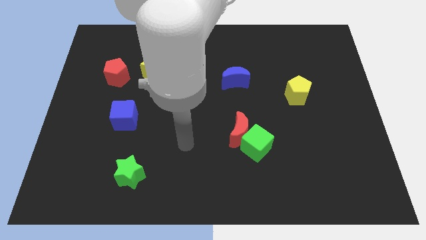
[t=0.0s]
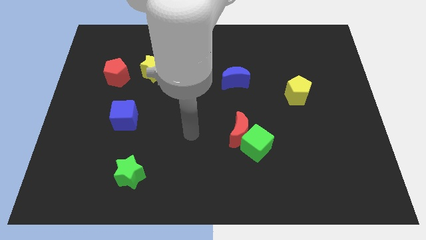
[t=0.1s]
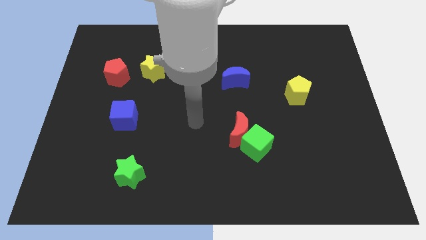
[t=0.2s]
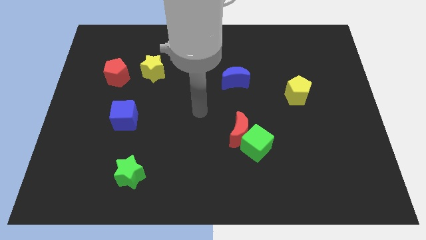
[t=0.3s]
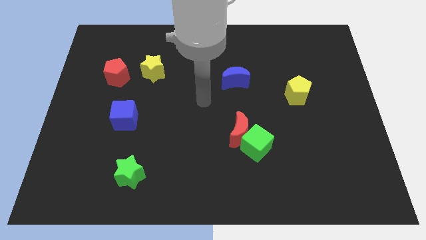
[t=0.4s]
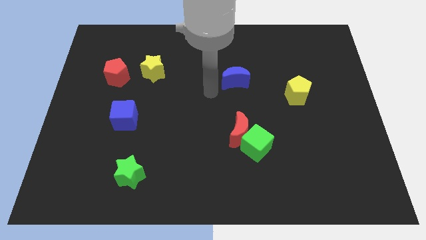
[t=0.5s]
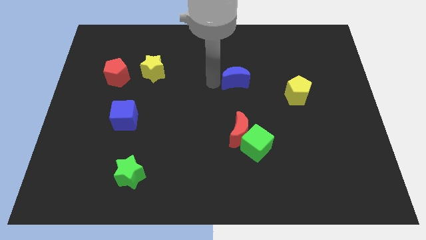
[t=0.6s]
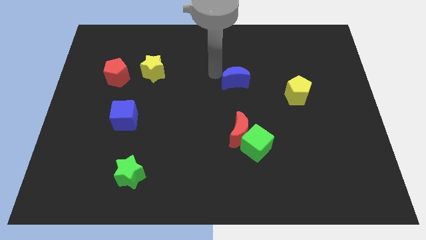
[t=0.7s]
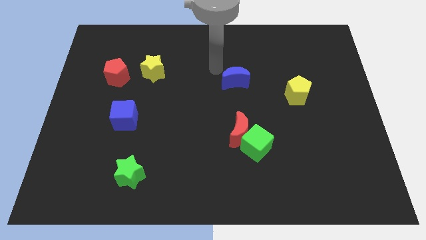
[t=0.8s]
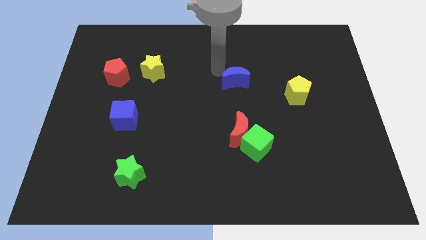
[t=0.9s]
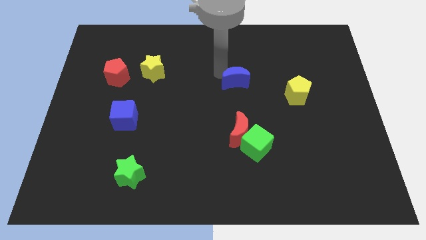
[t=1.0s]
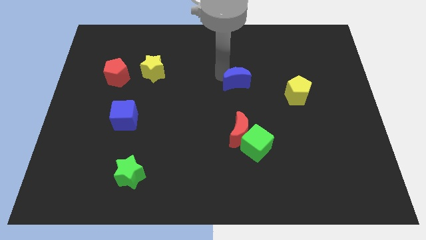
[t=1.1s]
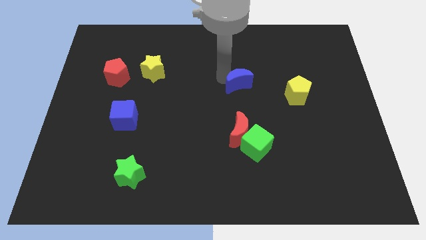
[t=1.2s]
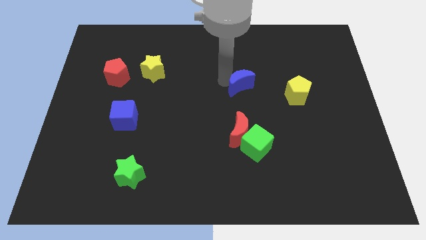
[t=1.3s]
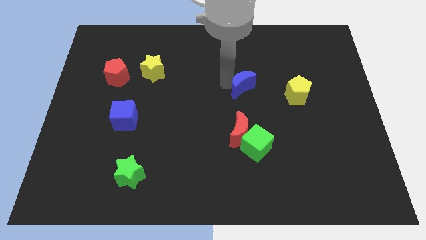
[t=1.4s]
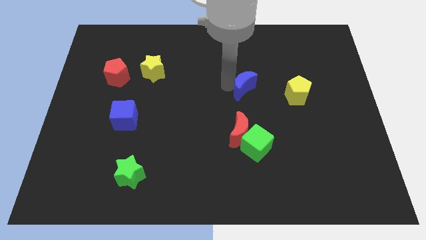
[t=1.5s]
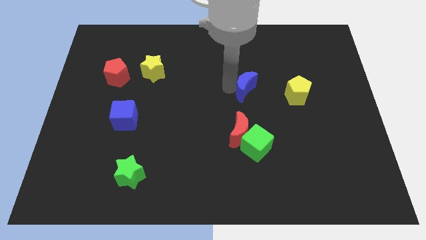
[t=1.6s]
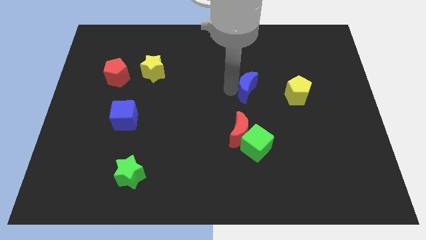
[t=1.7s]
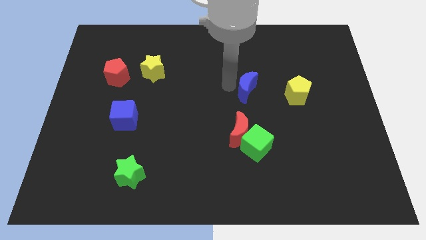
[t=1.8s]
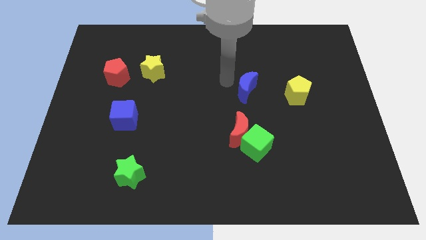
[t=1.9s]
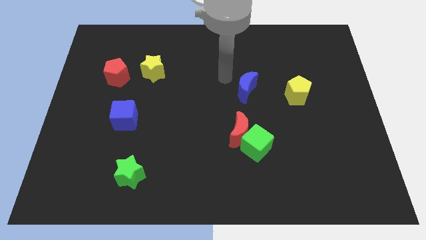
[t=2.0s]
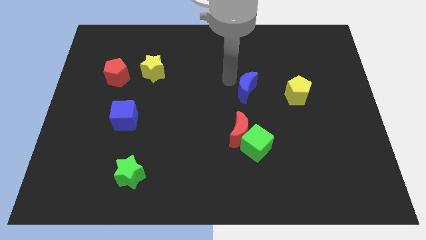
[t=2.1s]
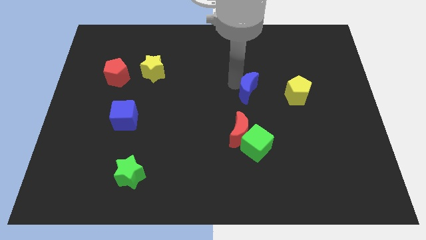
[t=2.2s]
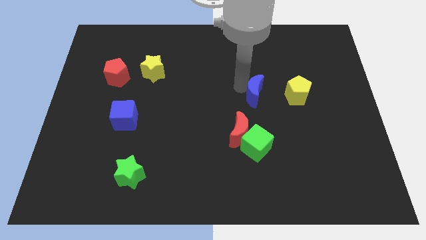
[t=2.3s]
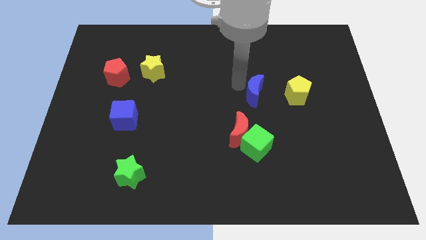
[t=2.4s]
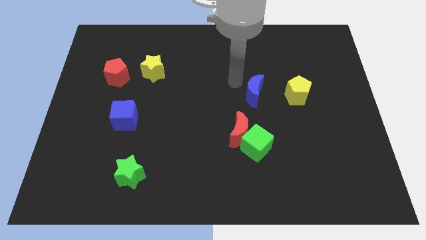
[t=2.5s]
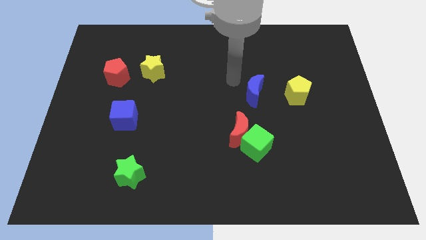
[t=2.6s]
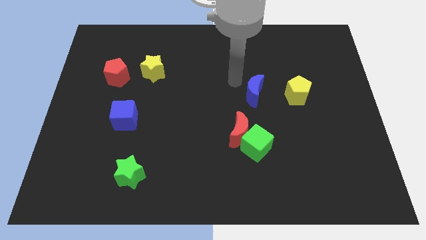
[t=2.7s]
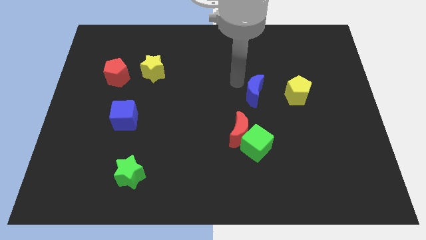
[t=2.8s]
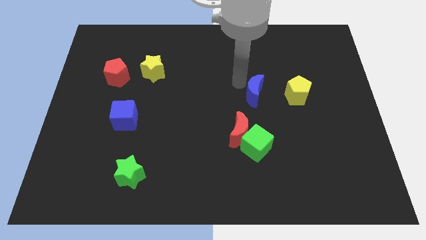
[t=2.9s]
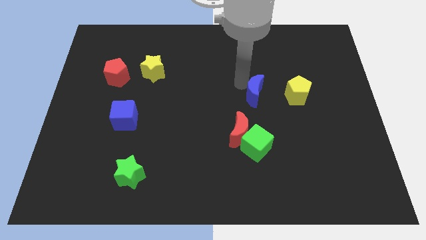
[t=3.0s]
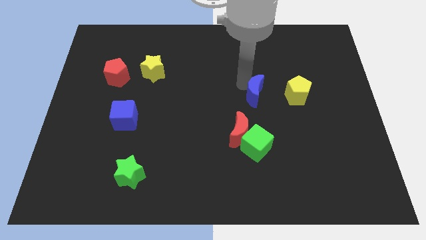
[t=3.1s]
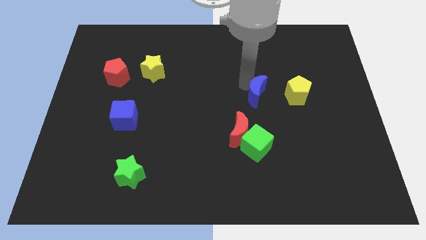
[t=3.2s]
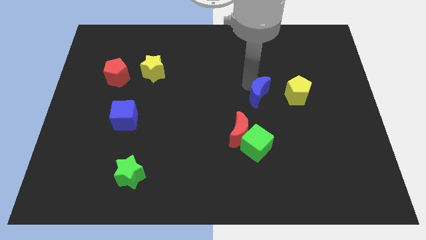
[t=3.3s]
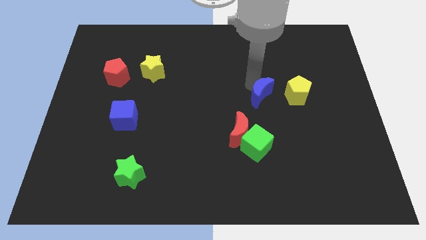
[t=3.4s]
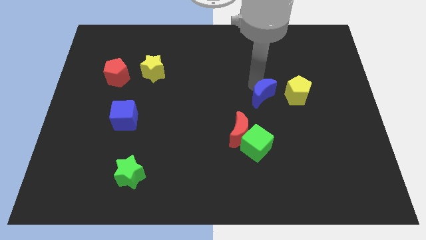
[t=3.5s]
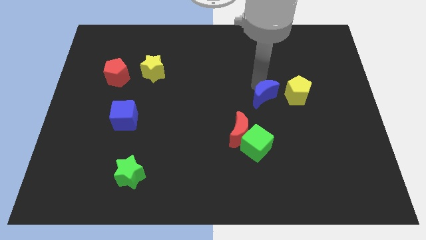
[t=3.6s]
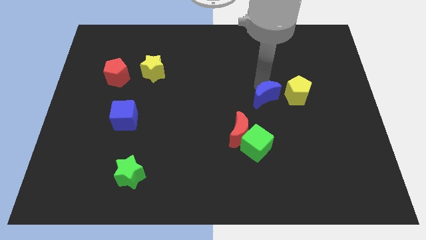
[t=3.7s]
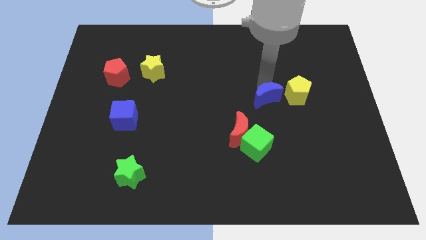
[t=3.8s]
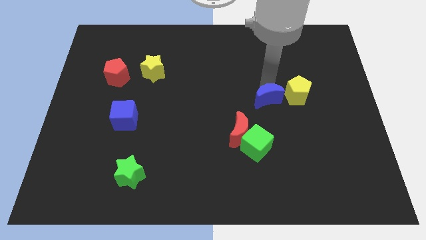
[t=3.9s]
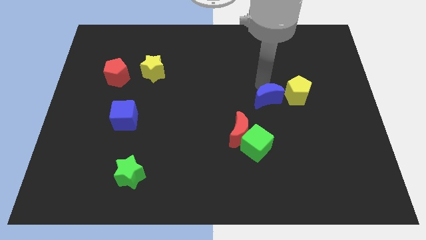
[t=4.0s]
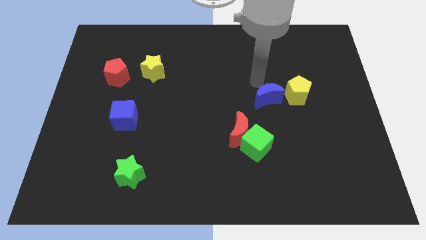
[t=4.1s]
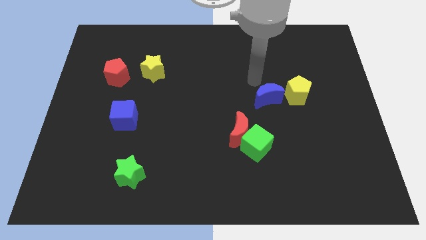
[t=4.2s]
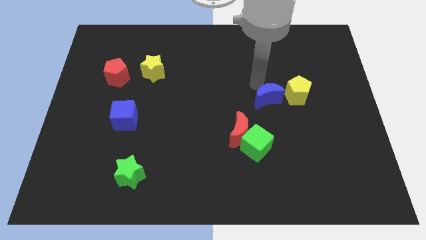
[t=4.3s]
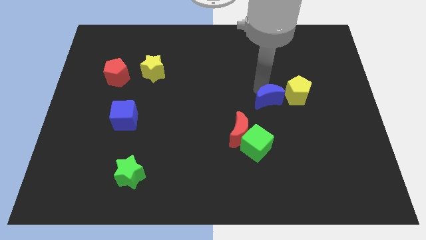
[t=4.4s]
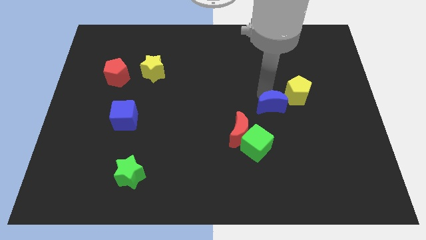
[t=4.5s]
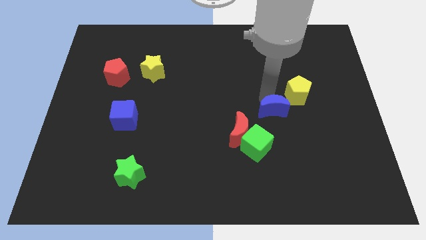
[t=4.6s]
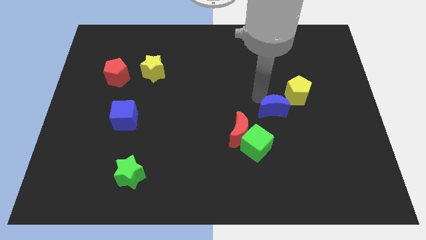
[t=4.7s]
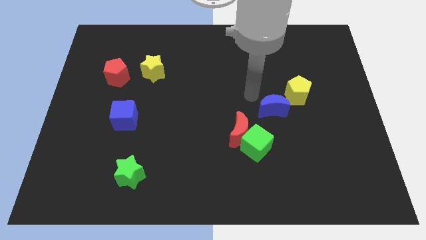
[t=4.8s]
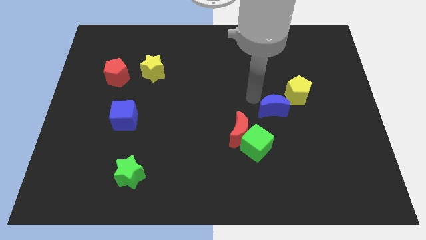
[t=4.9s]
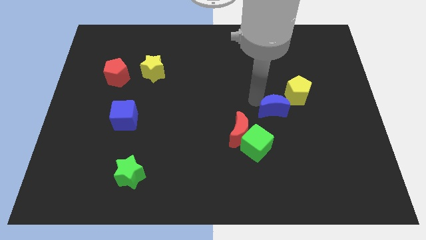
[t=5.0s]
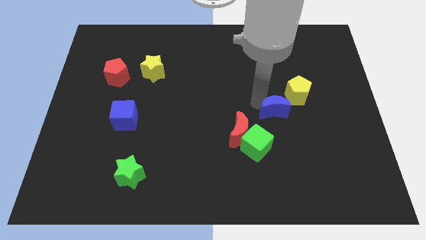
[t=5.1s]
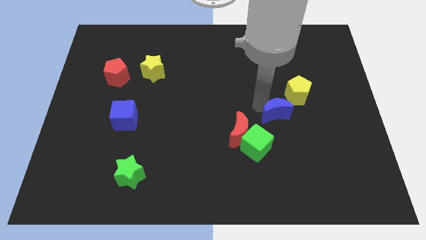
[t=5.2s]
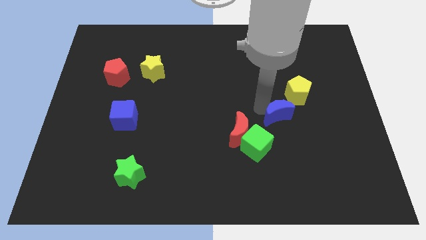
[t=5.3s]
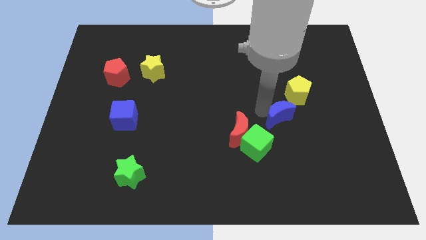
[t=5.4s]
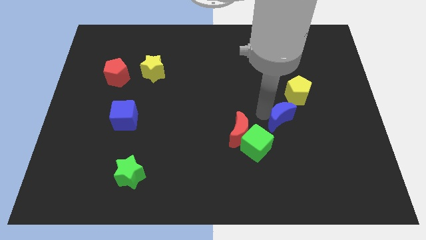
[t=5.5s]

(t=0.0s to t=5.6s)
push the blue moon to the bottom of the yellow pentagon

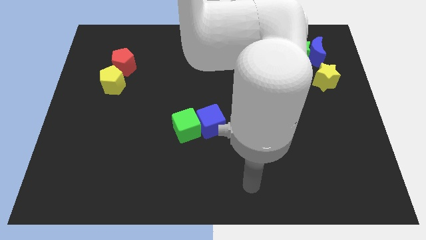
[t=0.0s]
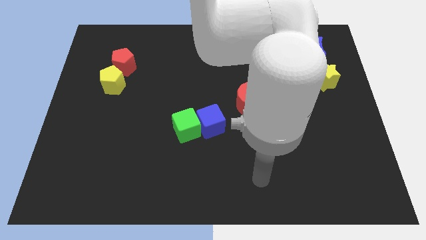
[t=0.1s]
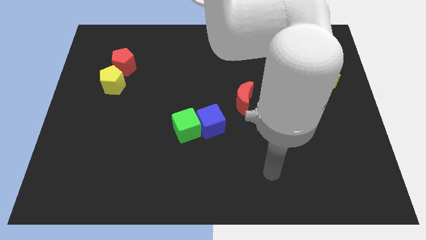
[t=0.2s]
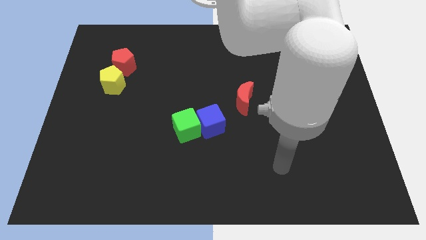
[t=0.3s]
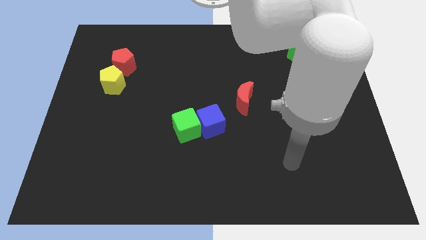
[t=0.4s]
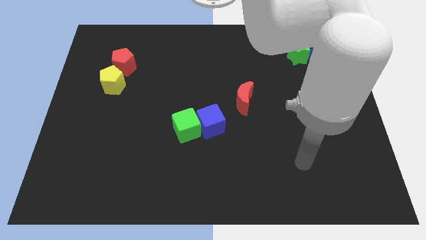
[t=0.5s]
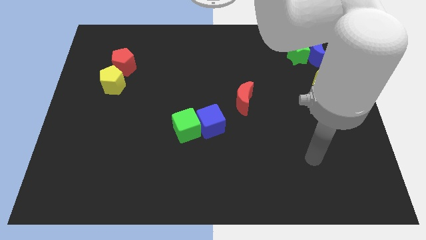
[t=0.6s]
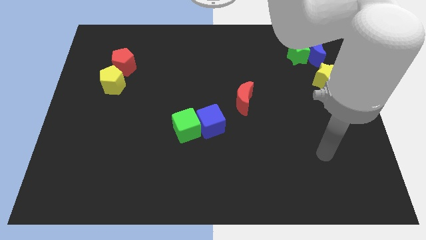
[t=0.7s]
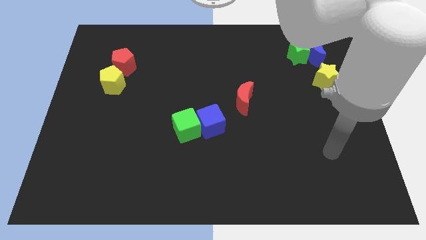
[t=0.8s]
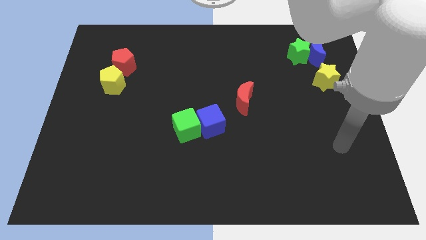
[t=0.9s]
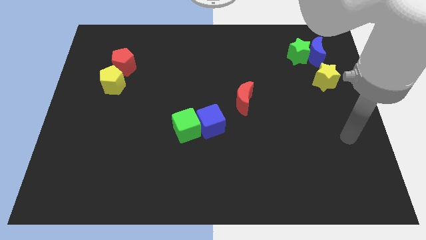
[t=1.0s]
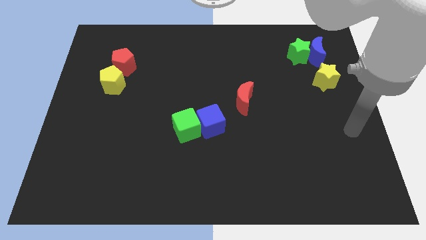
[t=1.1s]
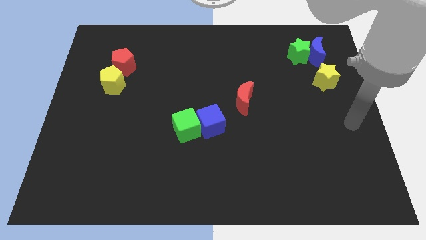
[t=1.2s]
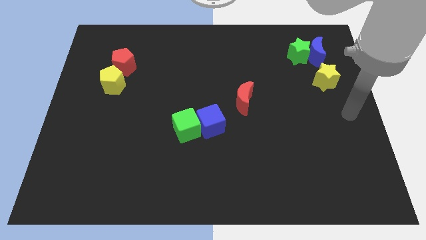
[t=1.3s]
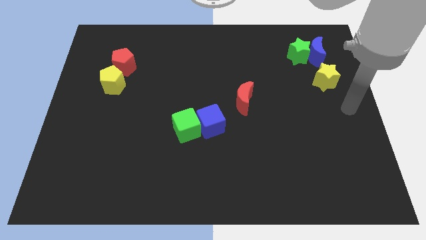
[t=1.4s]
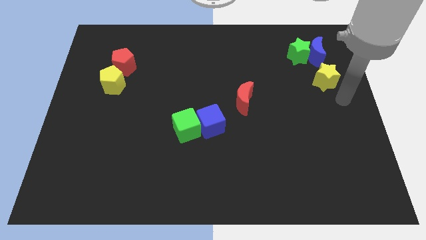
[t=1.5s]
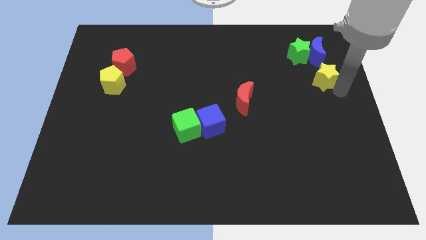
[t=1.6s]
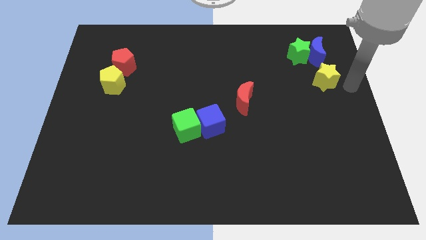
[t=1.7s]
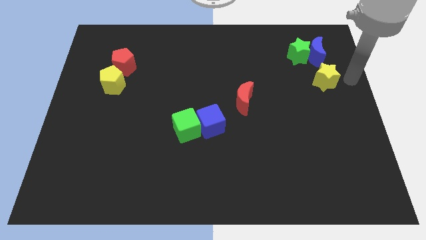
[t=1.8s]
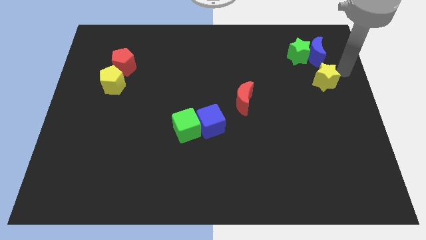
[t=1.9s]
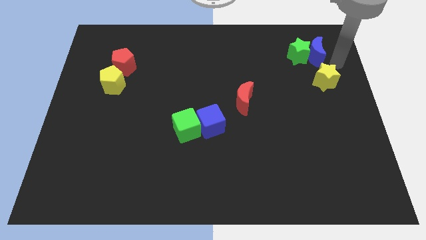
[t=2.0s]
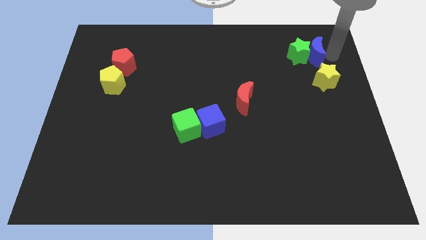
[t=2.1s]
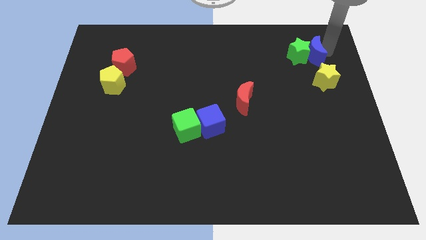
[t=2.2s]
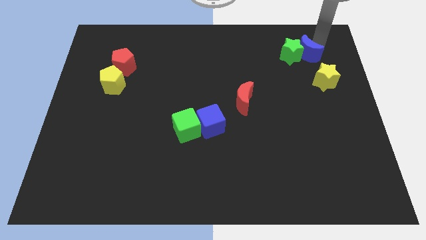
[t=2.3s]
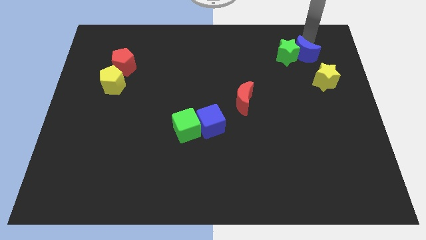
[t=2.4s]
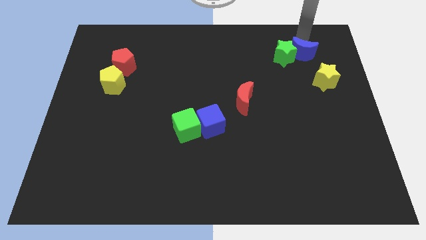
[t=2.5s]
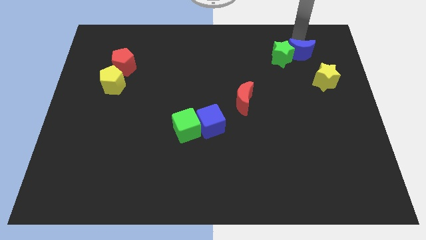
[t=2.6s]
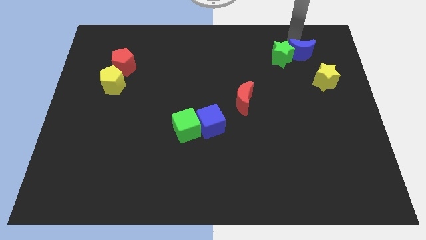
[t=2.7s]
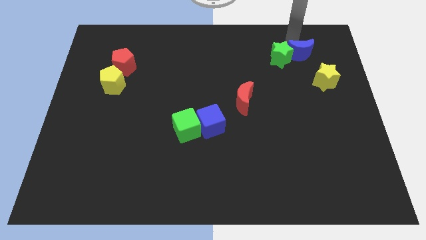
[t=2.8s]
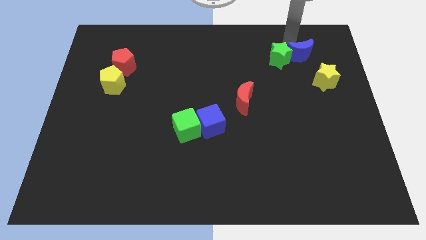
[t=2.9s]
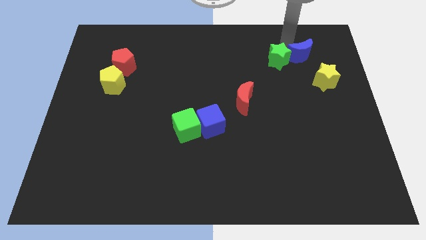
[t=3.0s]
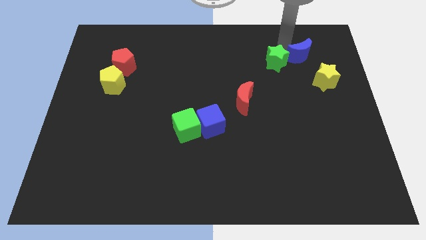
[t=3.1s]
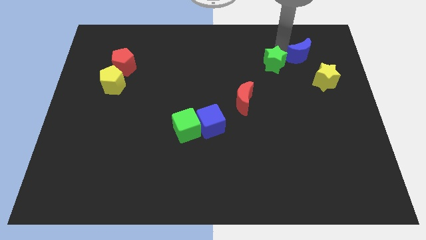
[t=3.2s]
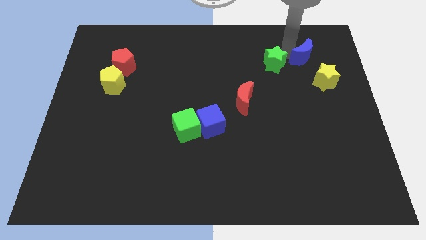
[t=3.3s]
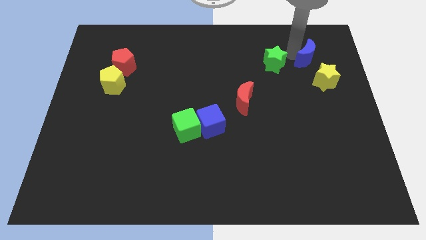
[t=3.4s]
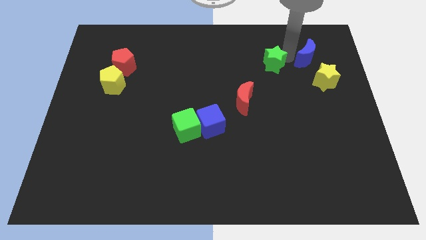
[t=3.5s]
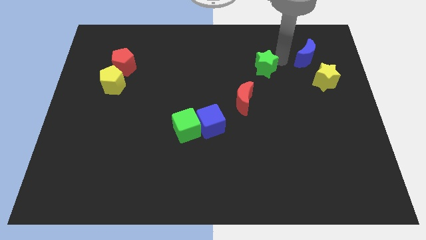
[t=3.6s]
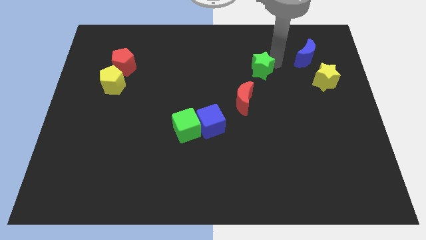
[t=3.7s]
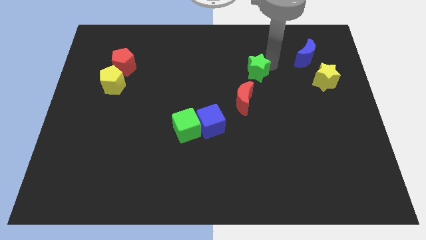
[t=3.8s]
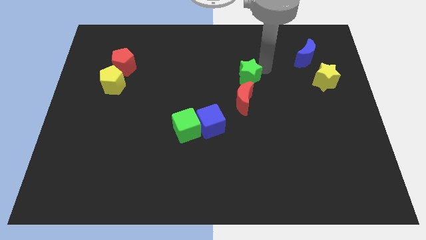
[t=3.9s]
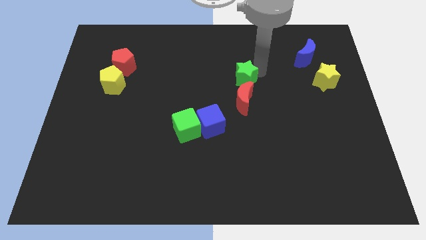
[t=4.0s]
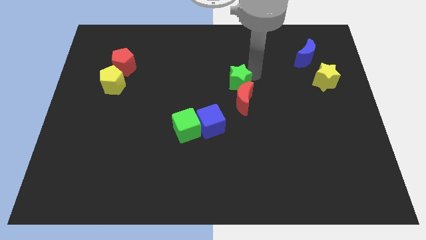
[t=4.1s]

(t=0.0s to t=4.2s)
move the green star to the top left side of the red moon
